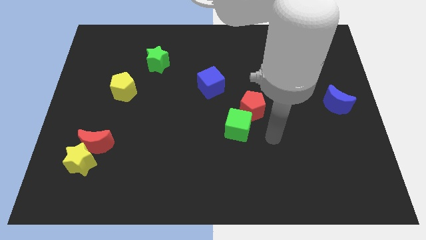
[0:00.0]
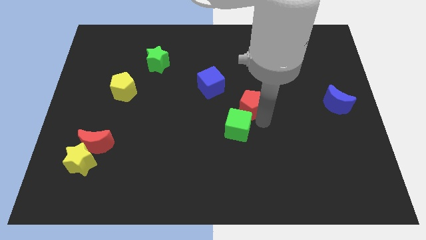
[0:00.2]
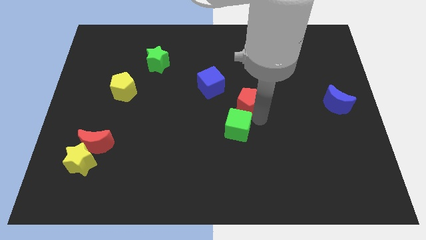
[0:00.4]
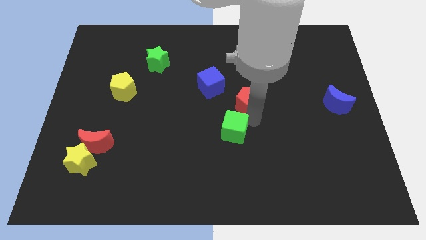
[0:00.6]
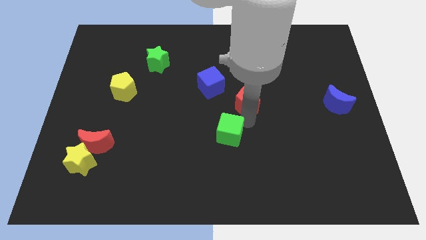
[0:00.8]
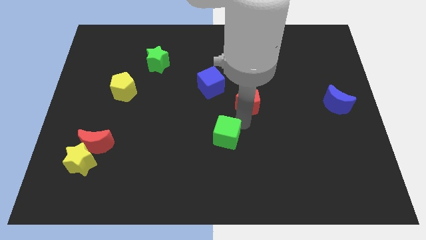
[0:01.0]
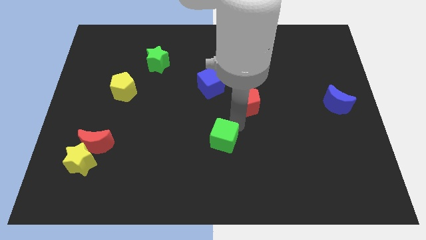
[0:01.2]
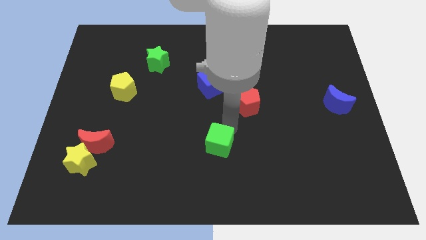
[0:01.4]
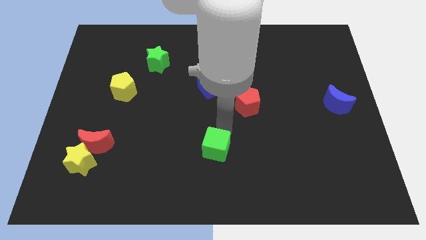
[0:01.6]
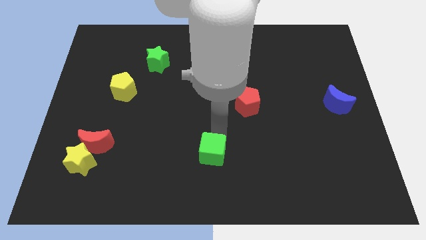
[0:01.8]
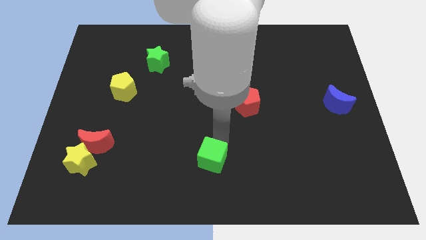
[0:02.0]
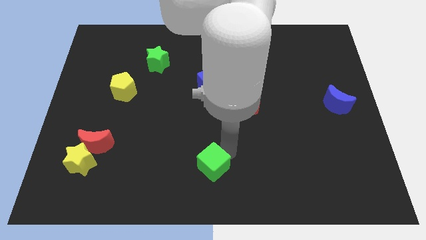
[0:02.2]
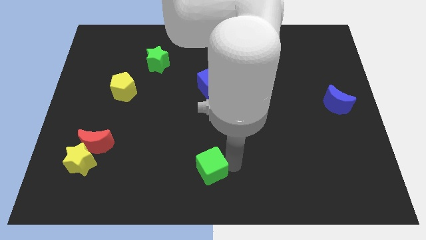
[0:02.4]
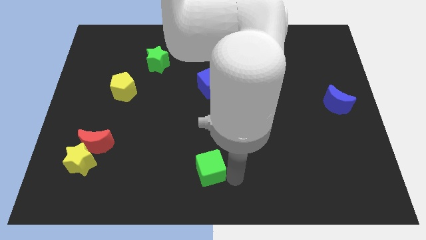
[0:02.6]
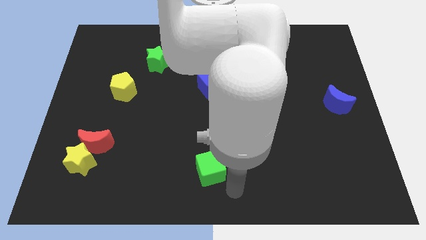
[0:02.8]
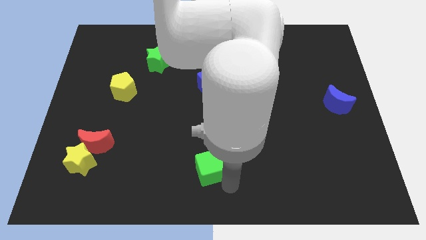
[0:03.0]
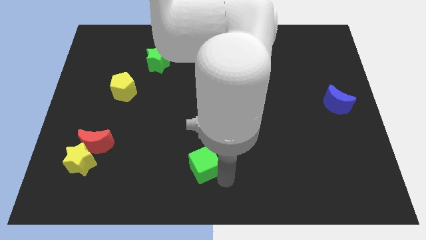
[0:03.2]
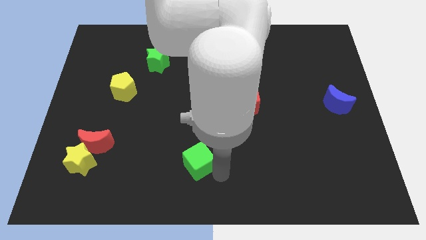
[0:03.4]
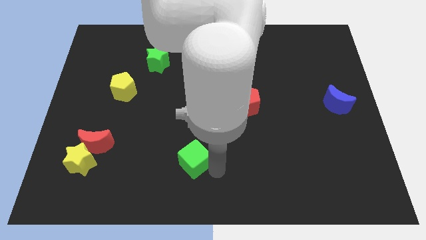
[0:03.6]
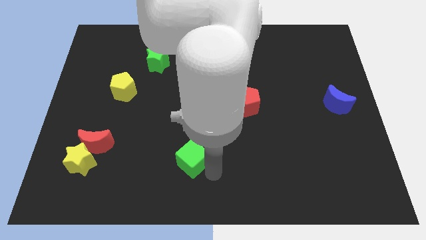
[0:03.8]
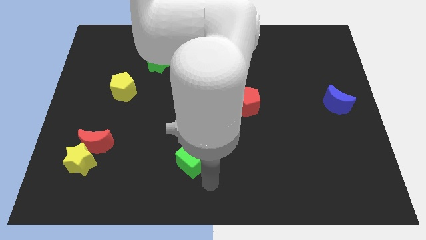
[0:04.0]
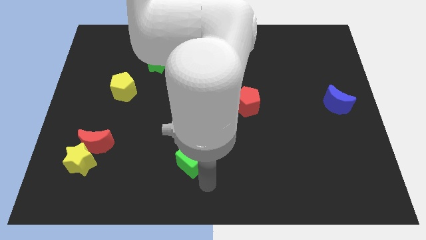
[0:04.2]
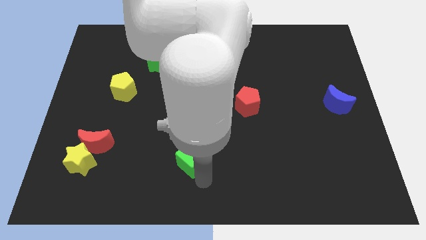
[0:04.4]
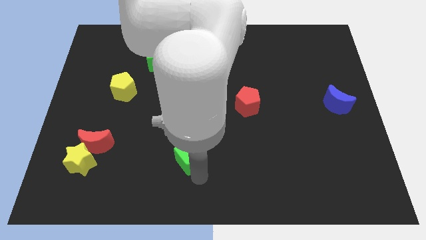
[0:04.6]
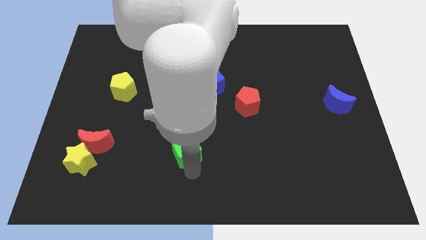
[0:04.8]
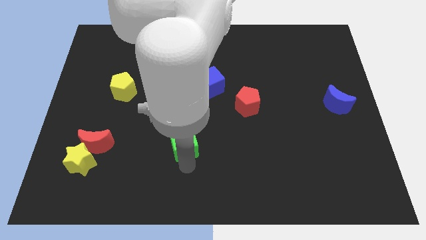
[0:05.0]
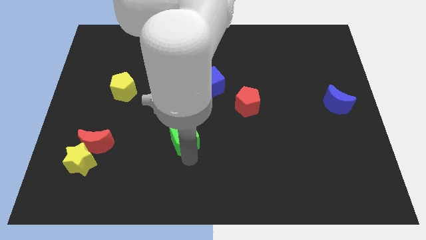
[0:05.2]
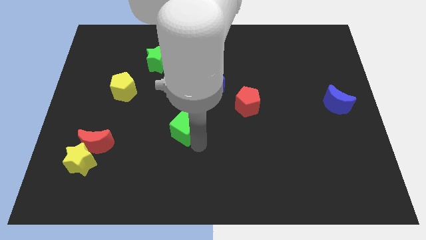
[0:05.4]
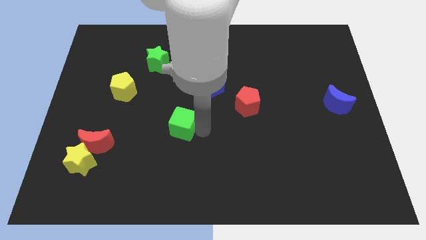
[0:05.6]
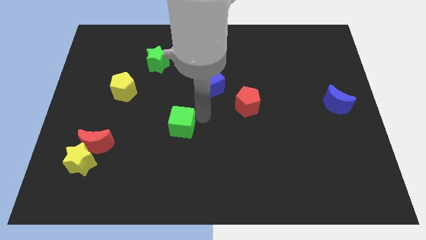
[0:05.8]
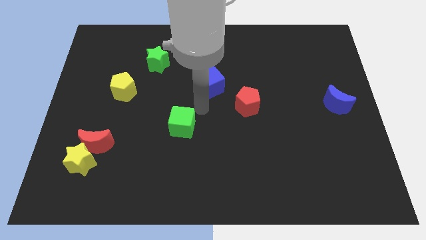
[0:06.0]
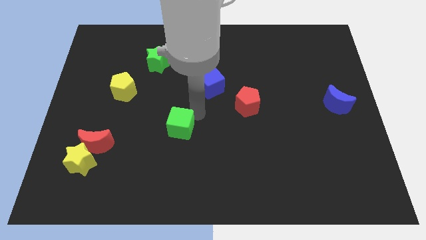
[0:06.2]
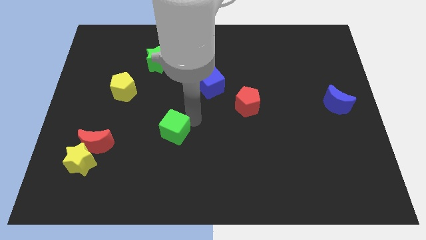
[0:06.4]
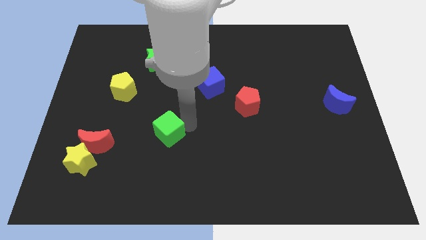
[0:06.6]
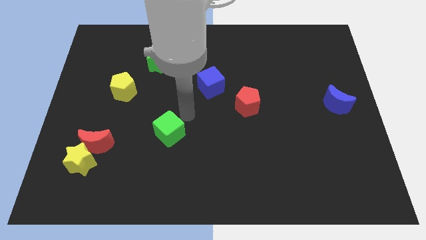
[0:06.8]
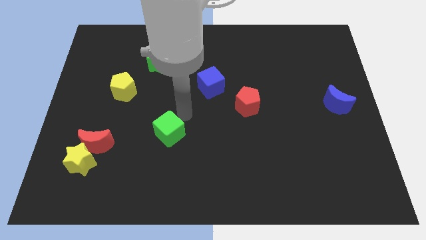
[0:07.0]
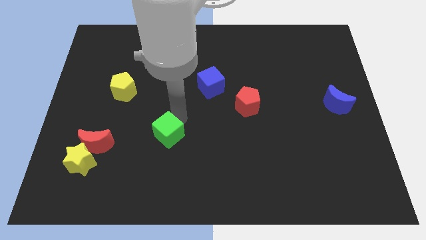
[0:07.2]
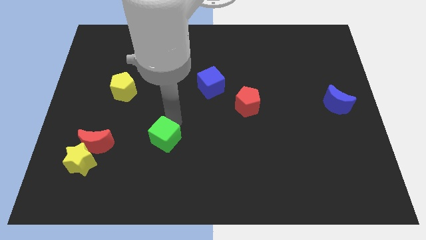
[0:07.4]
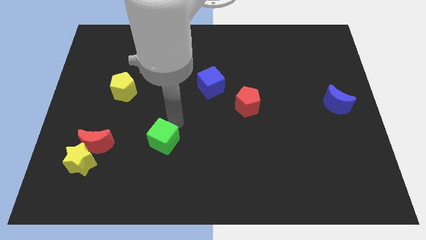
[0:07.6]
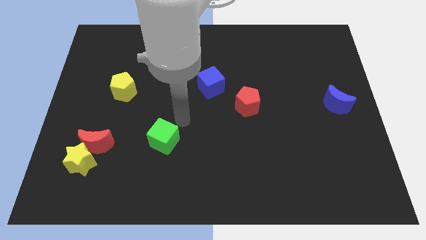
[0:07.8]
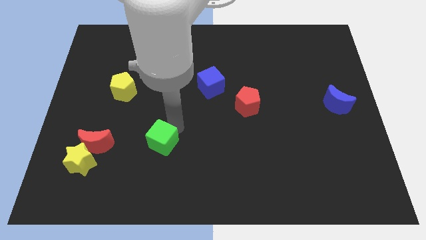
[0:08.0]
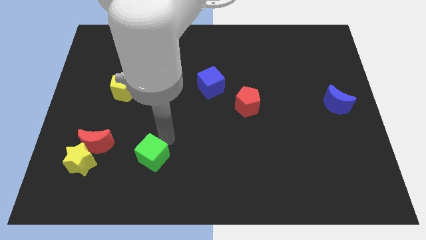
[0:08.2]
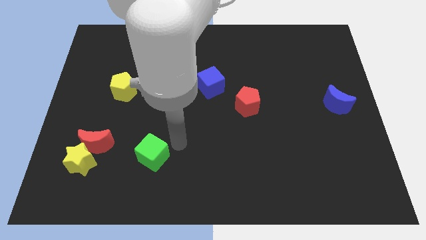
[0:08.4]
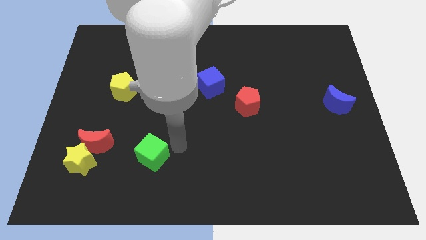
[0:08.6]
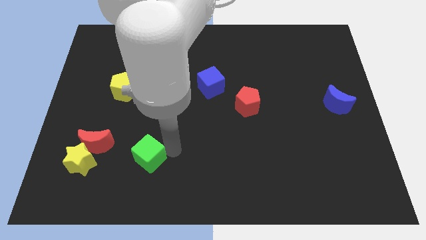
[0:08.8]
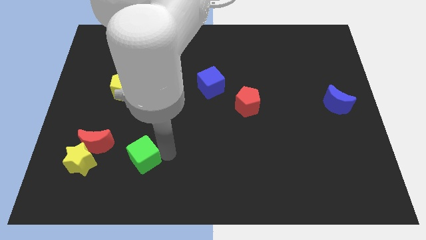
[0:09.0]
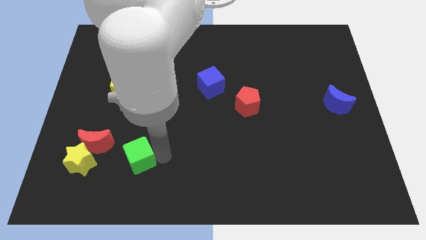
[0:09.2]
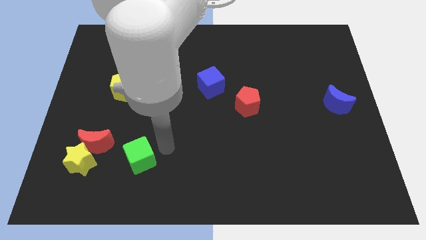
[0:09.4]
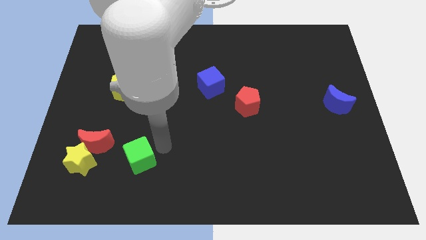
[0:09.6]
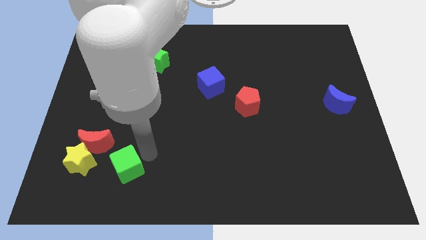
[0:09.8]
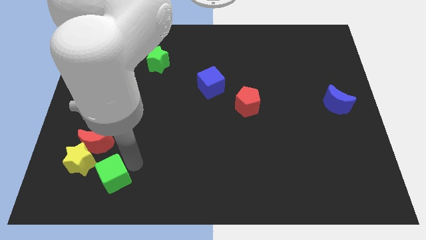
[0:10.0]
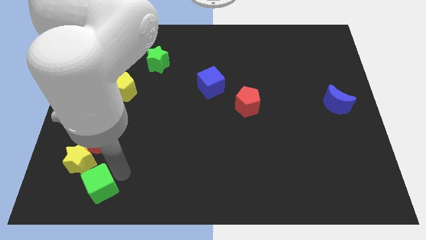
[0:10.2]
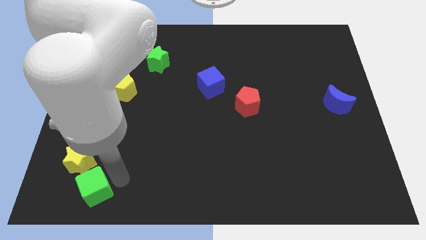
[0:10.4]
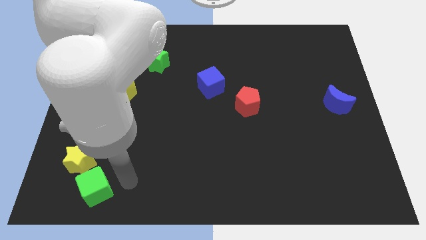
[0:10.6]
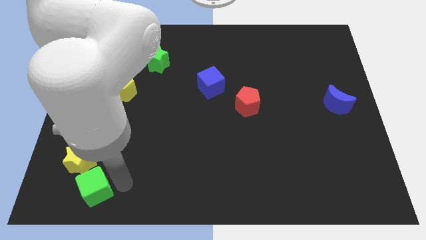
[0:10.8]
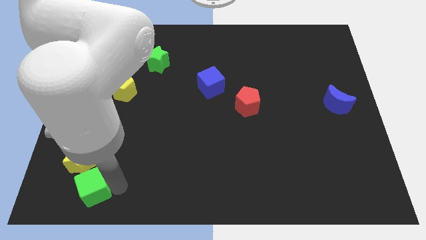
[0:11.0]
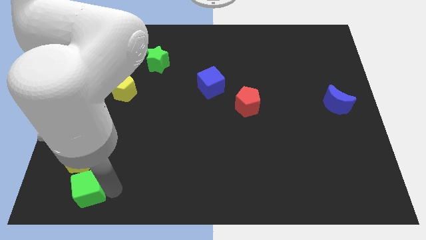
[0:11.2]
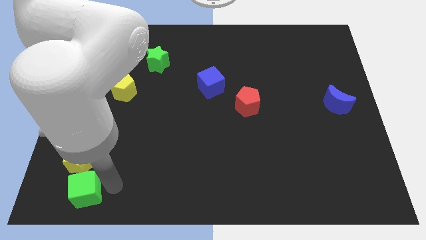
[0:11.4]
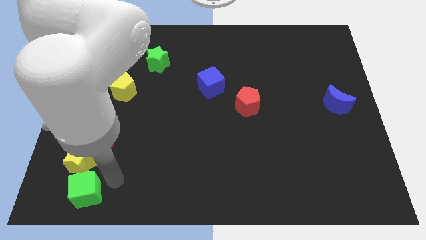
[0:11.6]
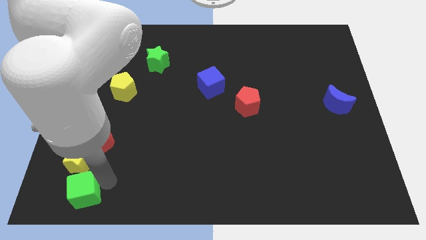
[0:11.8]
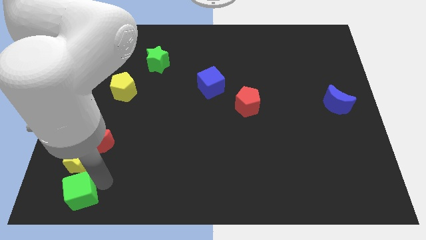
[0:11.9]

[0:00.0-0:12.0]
push the green cube to the lower left corner
